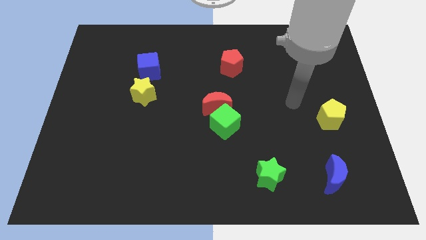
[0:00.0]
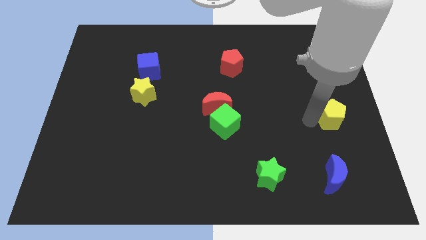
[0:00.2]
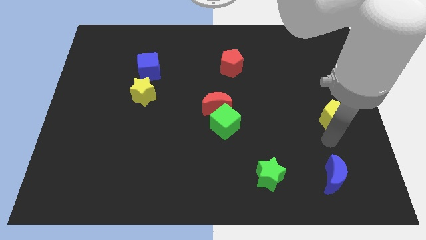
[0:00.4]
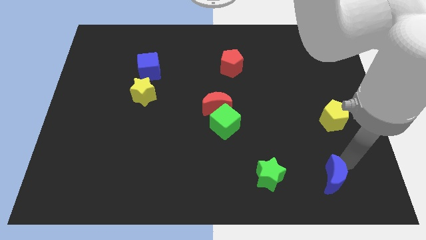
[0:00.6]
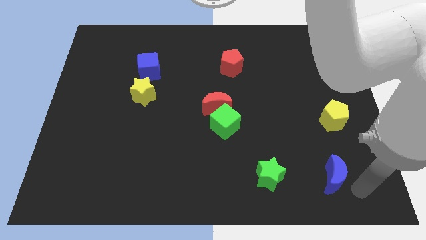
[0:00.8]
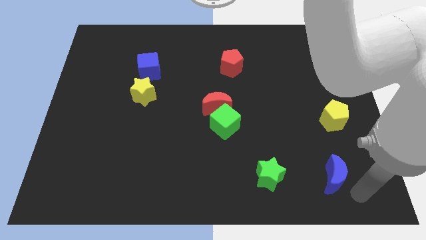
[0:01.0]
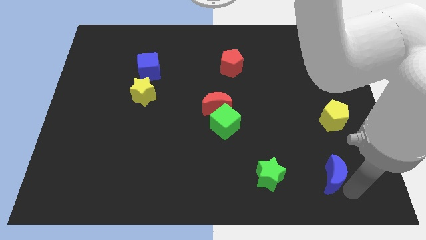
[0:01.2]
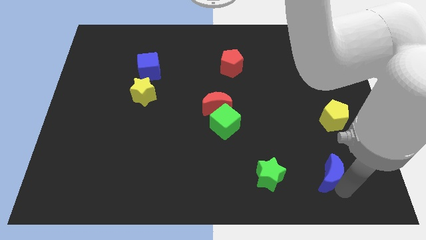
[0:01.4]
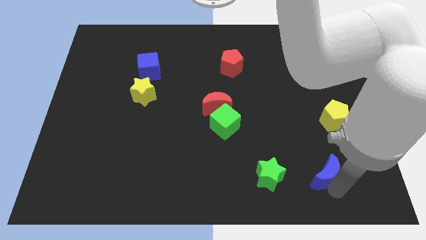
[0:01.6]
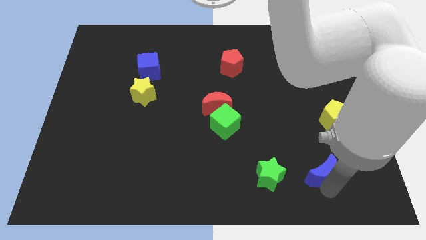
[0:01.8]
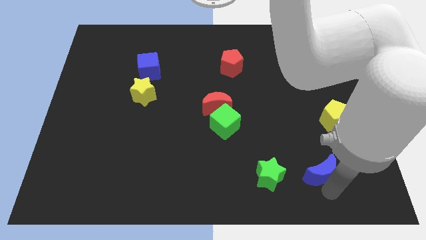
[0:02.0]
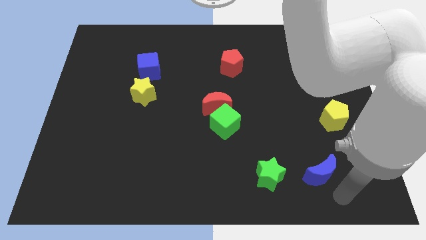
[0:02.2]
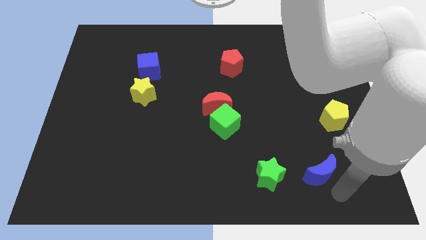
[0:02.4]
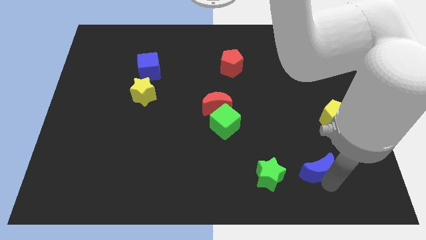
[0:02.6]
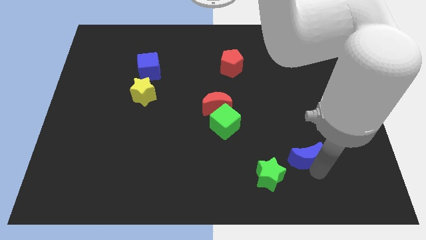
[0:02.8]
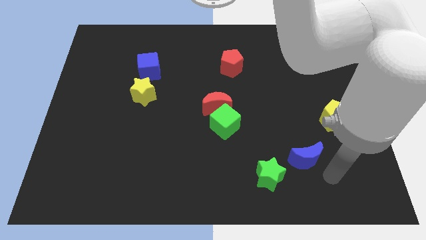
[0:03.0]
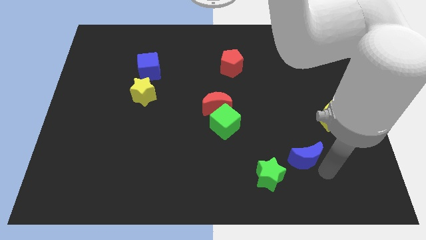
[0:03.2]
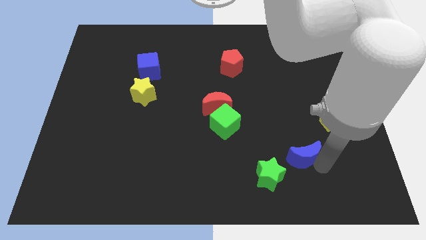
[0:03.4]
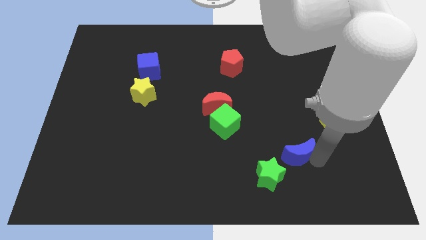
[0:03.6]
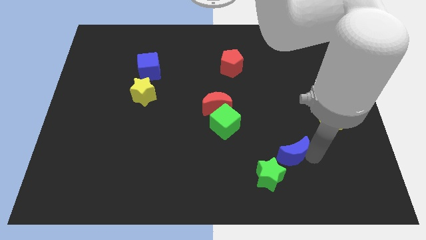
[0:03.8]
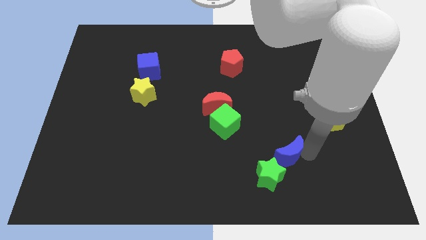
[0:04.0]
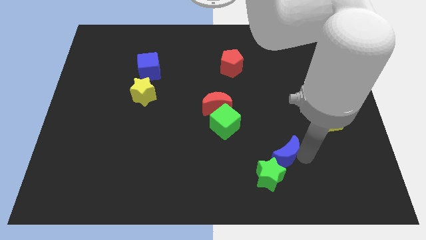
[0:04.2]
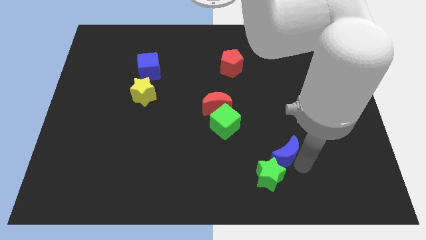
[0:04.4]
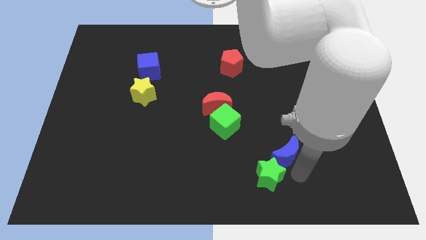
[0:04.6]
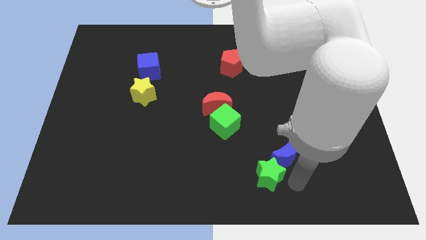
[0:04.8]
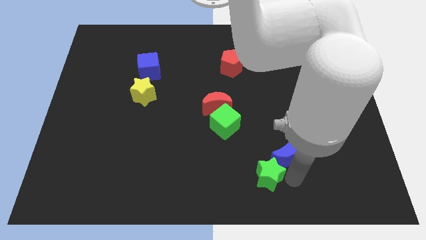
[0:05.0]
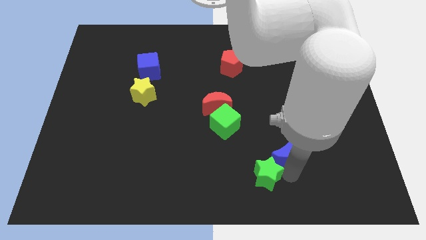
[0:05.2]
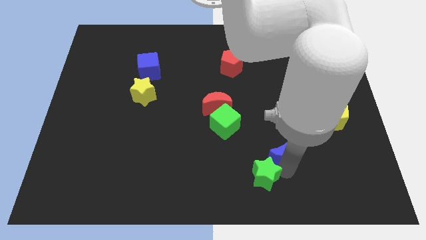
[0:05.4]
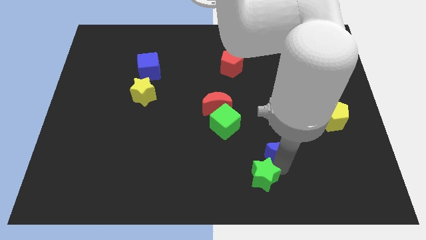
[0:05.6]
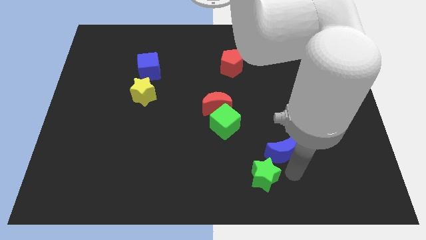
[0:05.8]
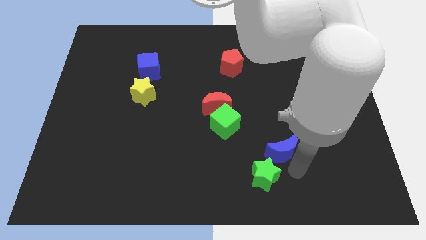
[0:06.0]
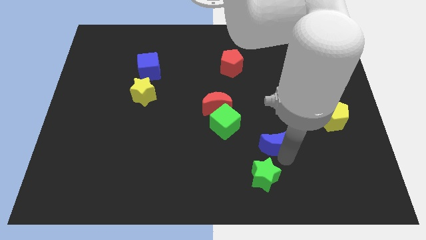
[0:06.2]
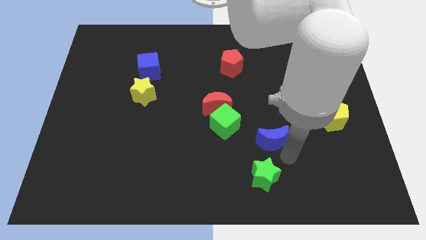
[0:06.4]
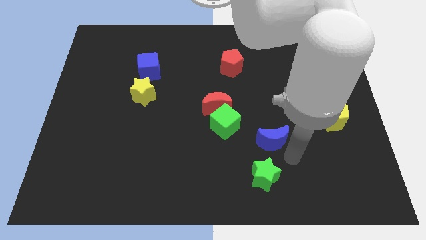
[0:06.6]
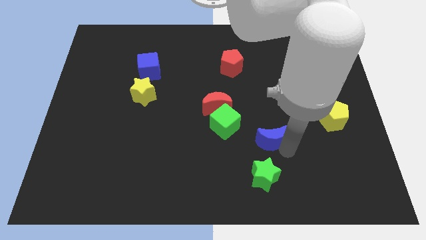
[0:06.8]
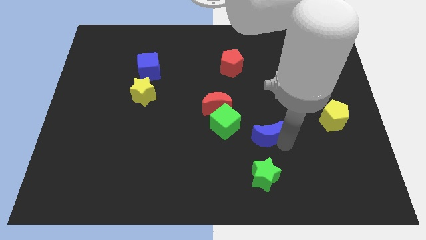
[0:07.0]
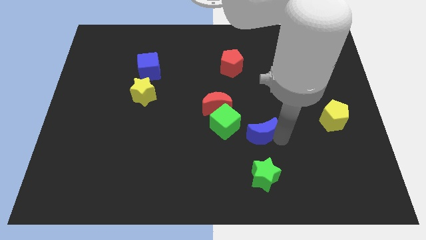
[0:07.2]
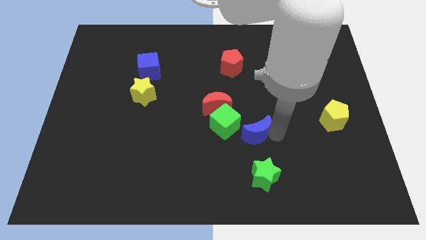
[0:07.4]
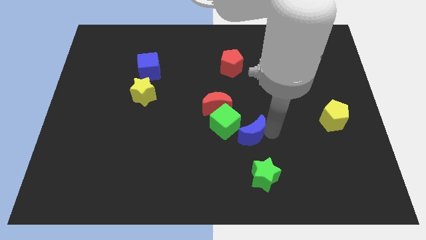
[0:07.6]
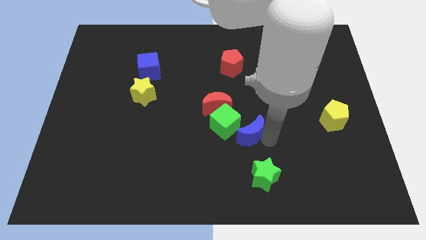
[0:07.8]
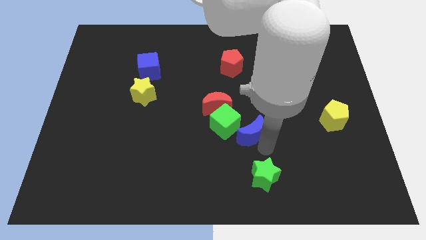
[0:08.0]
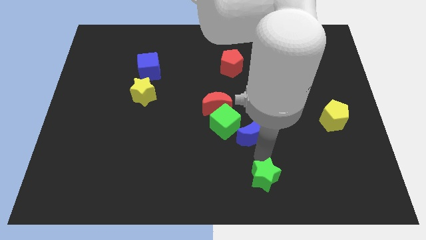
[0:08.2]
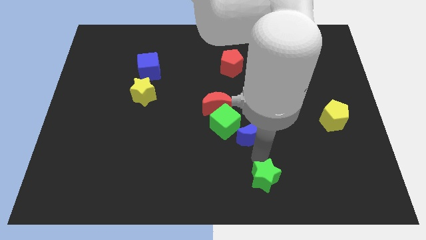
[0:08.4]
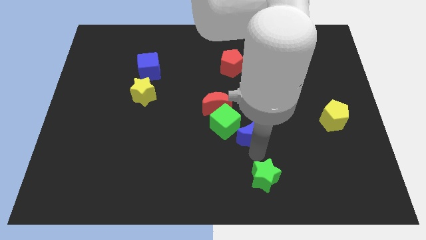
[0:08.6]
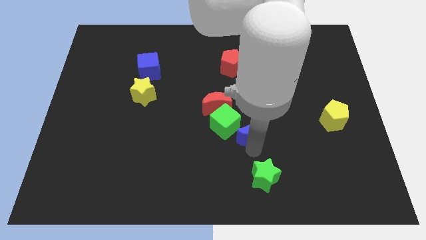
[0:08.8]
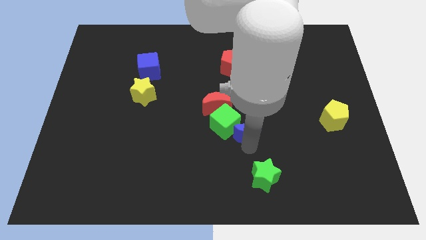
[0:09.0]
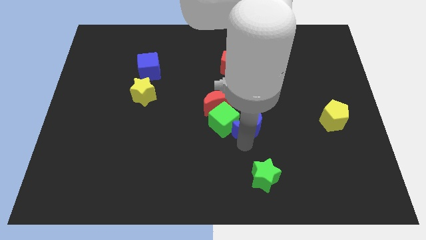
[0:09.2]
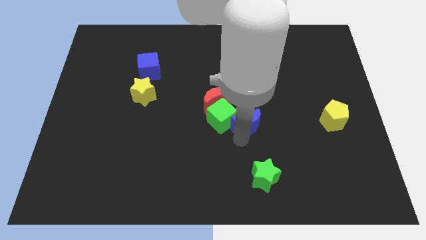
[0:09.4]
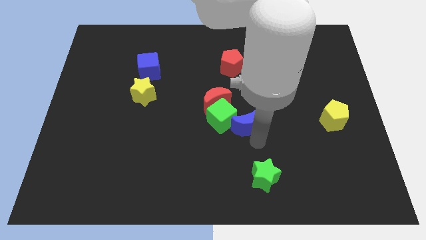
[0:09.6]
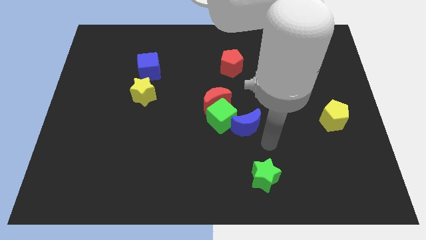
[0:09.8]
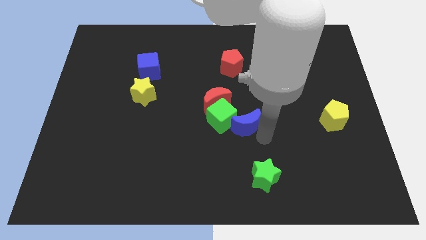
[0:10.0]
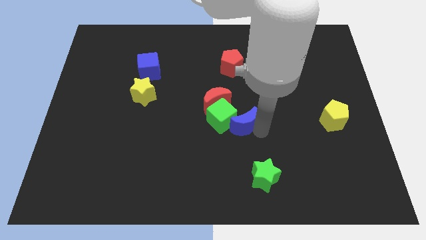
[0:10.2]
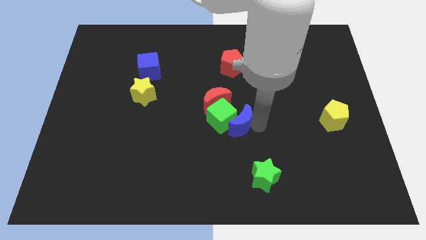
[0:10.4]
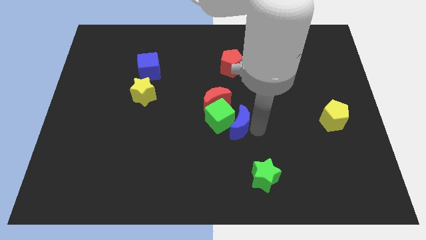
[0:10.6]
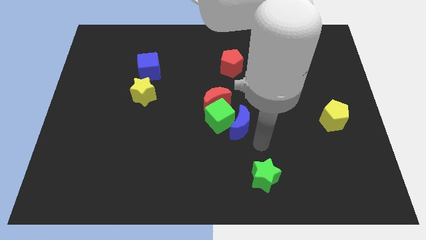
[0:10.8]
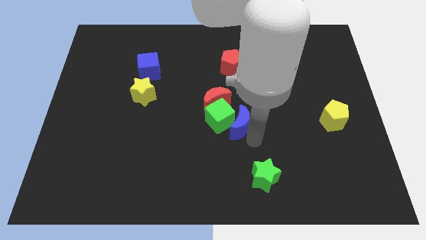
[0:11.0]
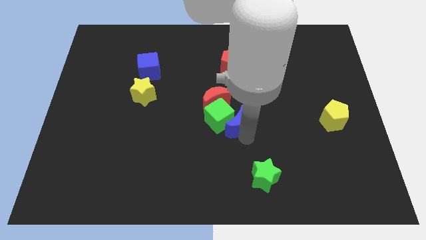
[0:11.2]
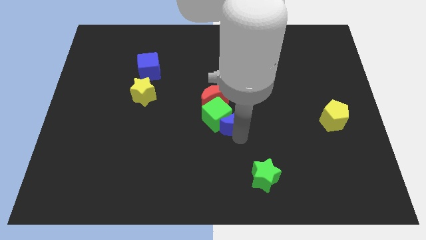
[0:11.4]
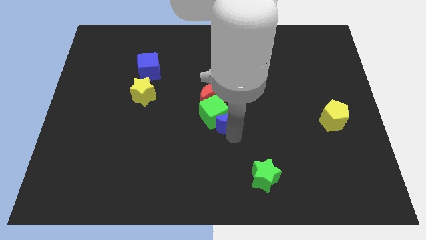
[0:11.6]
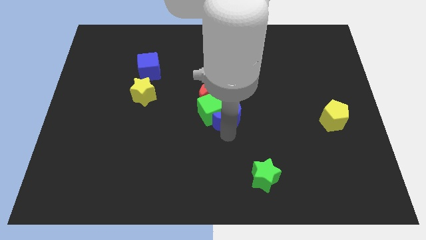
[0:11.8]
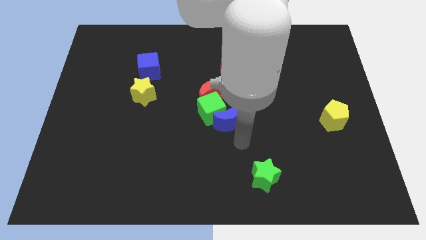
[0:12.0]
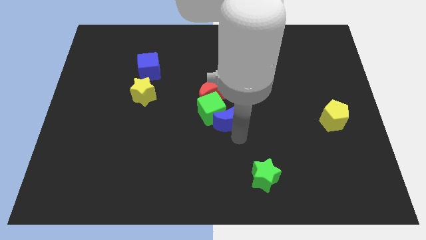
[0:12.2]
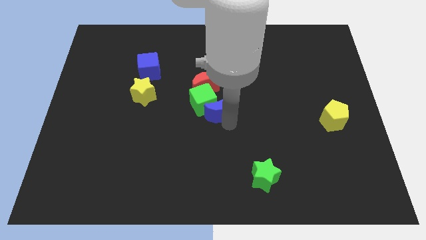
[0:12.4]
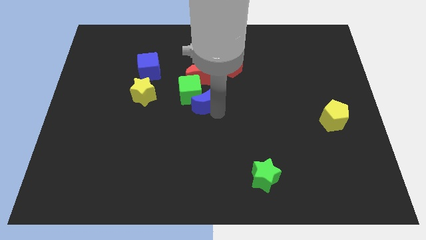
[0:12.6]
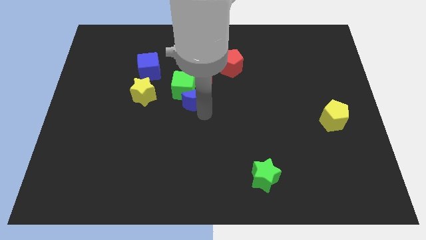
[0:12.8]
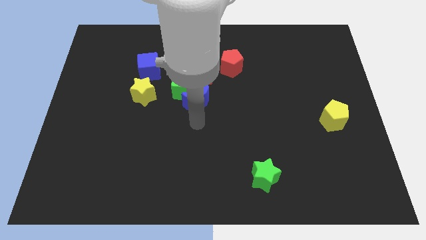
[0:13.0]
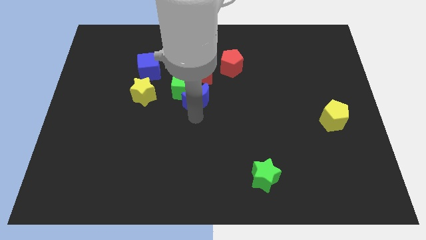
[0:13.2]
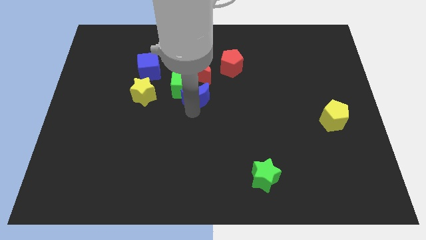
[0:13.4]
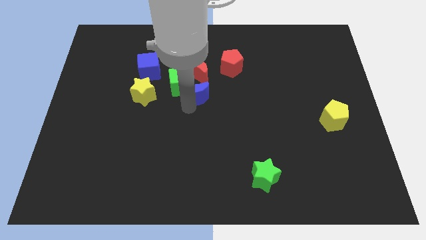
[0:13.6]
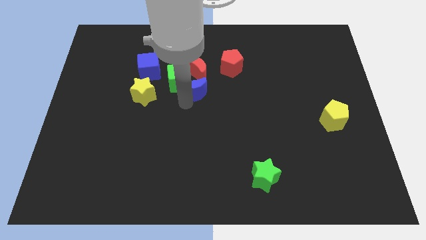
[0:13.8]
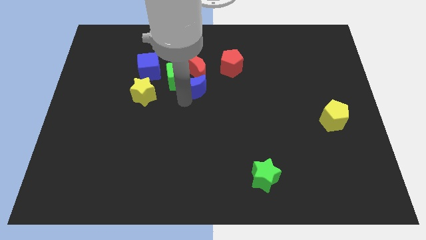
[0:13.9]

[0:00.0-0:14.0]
slide the blue moon towards the red moon
